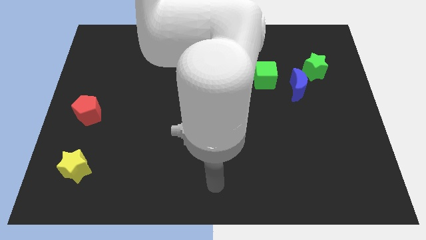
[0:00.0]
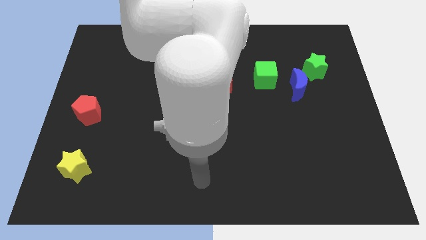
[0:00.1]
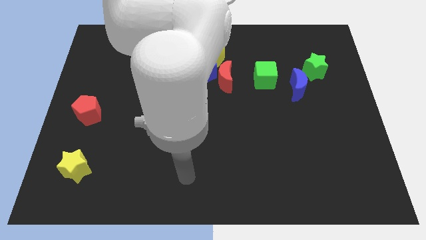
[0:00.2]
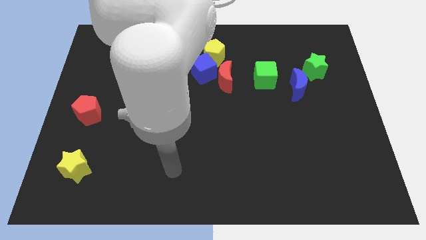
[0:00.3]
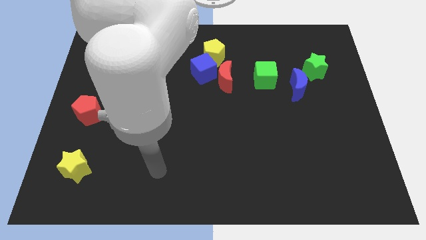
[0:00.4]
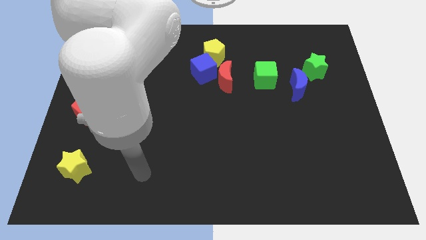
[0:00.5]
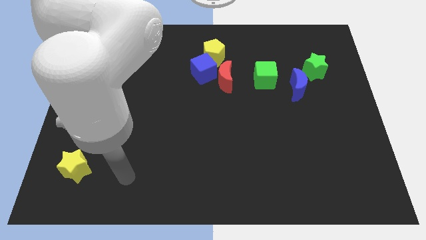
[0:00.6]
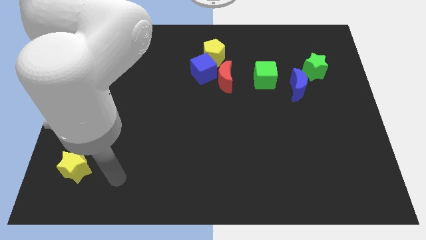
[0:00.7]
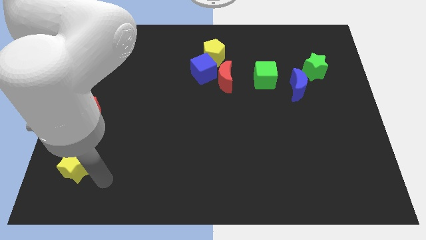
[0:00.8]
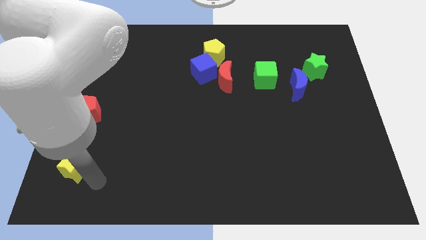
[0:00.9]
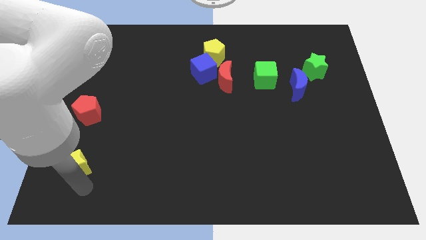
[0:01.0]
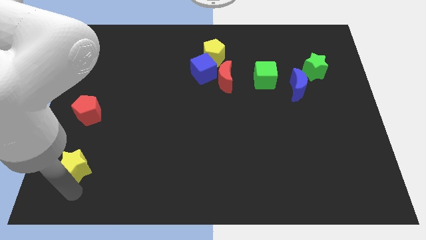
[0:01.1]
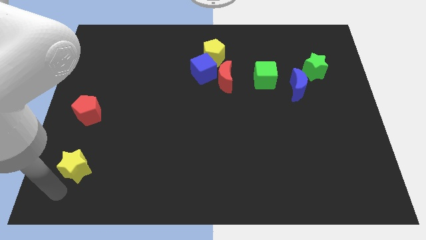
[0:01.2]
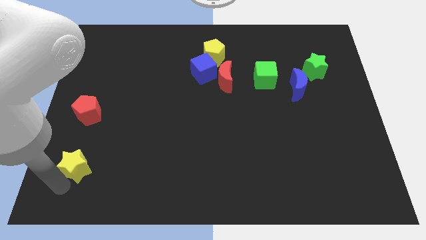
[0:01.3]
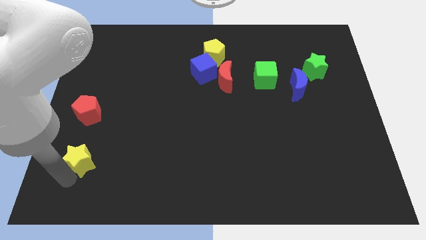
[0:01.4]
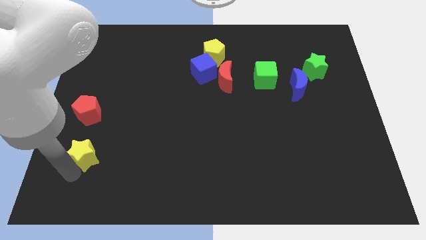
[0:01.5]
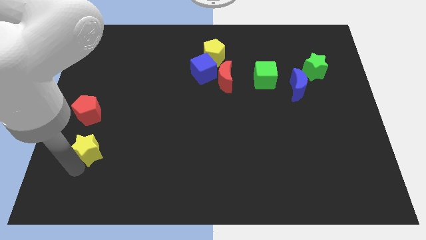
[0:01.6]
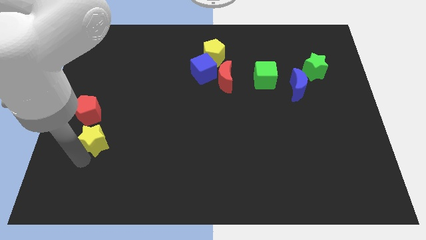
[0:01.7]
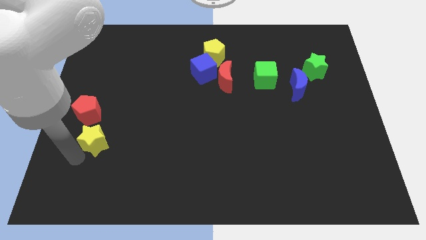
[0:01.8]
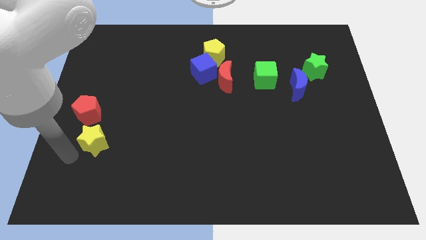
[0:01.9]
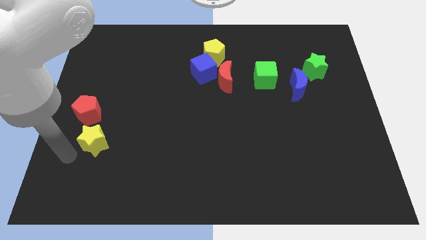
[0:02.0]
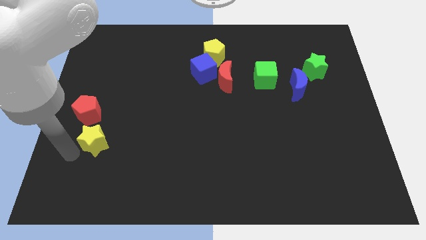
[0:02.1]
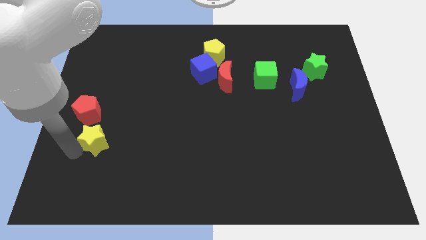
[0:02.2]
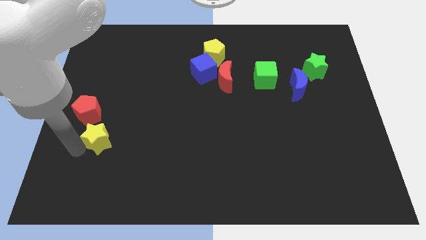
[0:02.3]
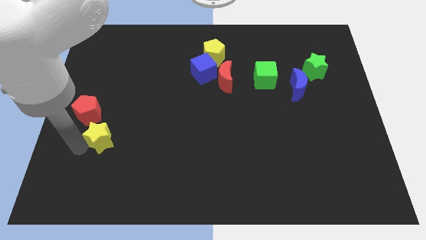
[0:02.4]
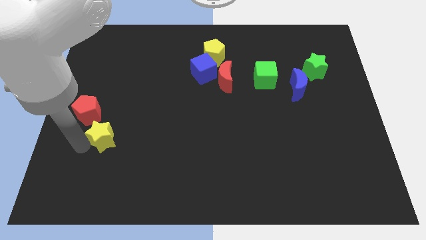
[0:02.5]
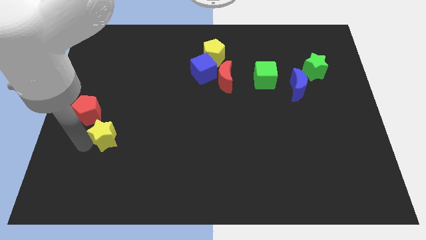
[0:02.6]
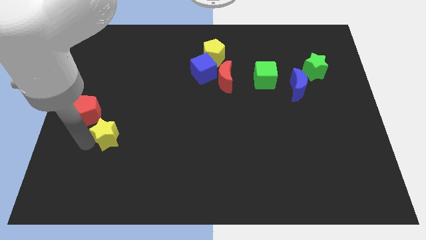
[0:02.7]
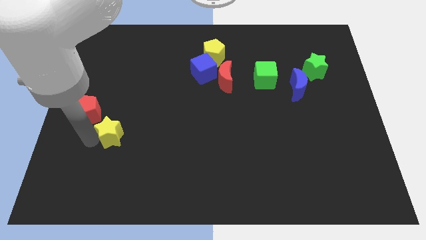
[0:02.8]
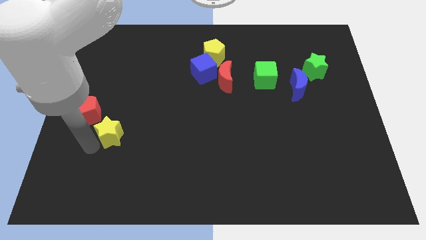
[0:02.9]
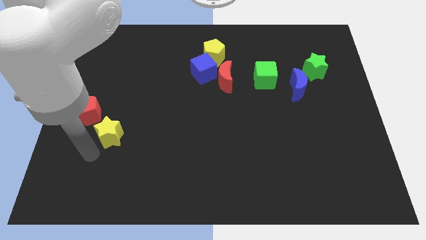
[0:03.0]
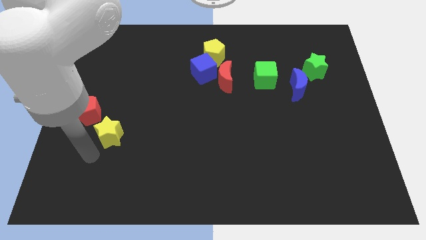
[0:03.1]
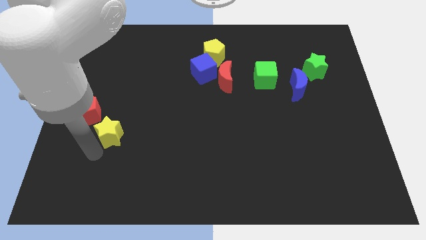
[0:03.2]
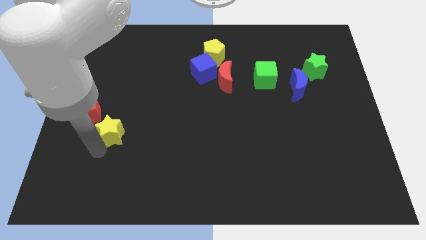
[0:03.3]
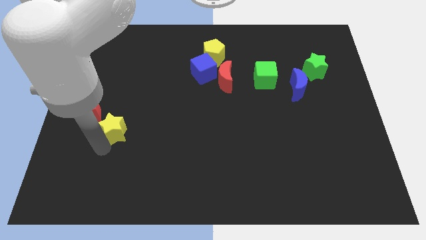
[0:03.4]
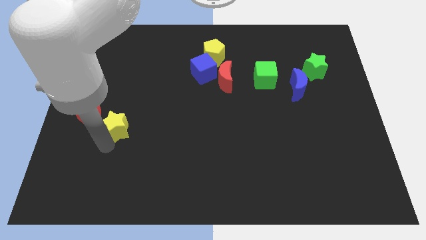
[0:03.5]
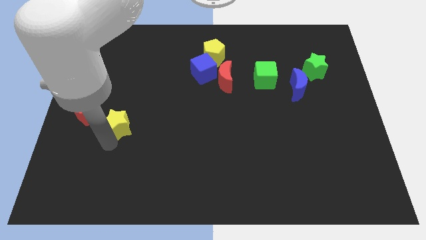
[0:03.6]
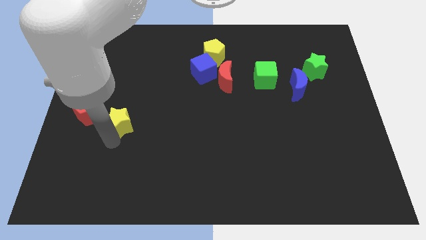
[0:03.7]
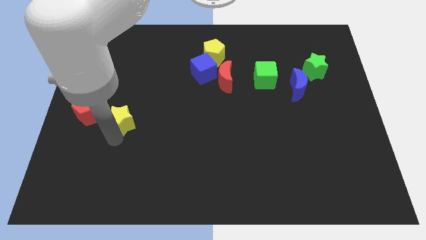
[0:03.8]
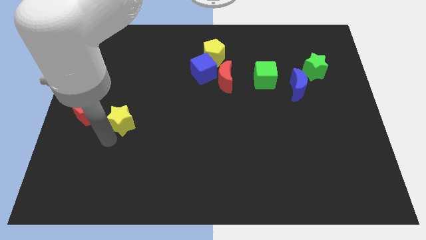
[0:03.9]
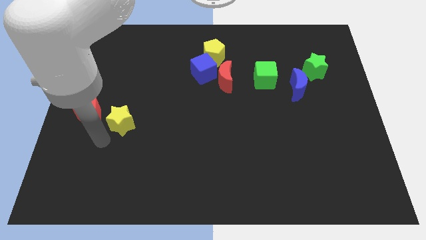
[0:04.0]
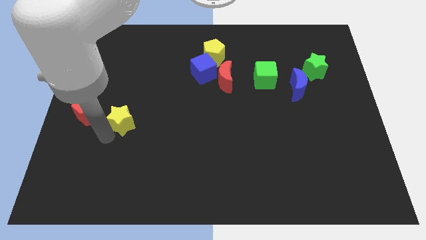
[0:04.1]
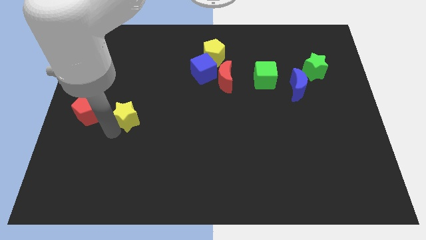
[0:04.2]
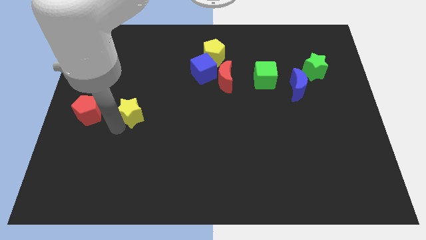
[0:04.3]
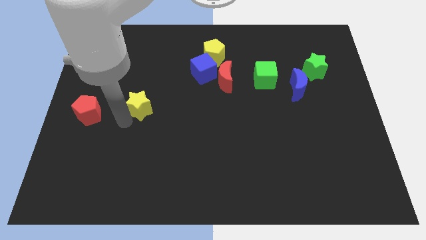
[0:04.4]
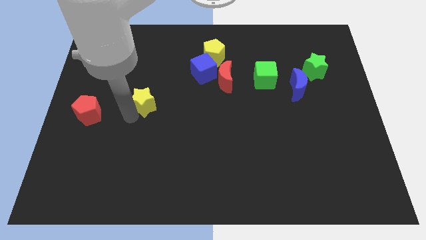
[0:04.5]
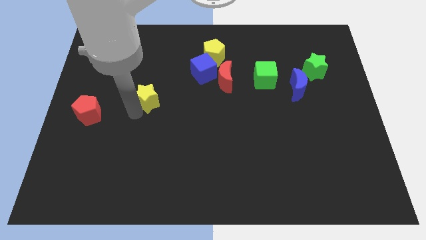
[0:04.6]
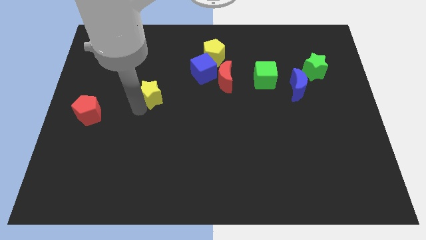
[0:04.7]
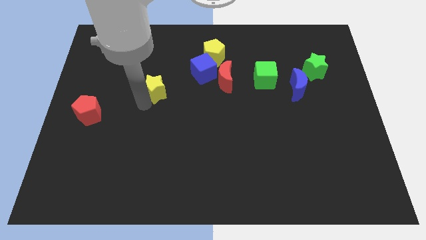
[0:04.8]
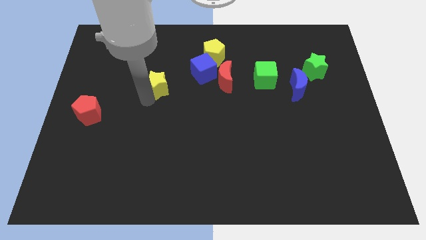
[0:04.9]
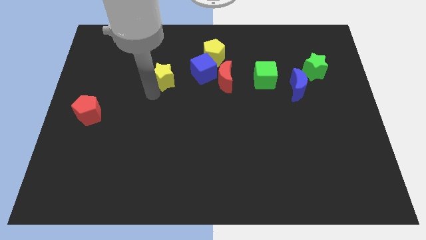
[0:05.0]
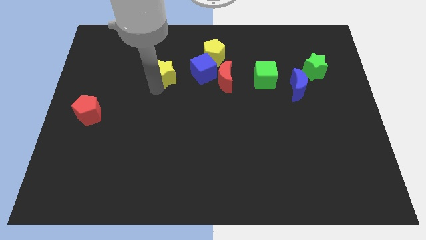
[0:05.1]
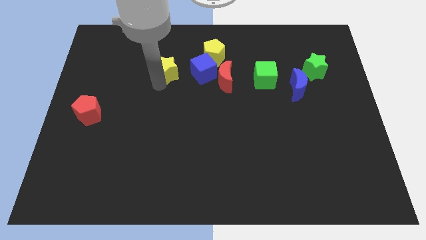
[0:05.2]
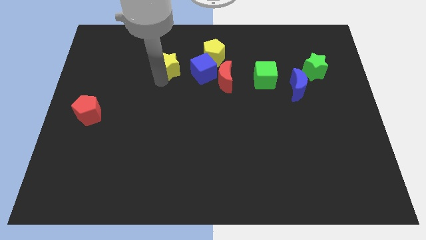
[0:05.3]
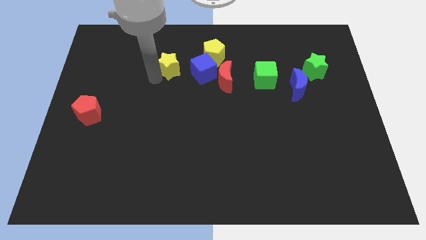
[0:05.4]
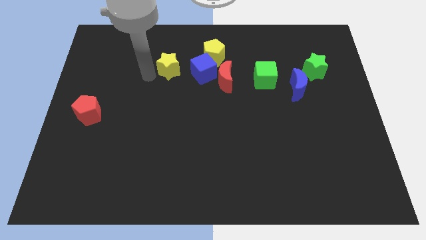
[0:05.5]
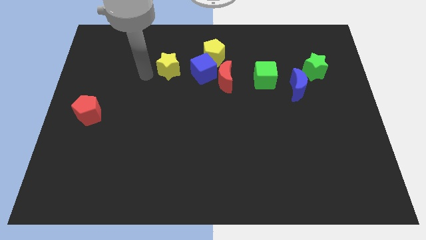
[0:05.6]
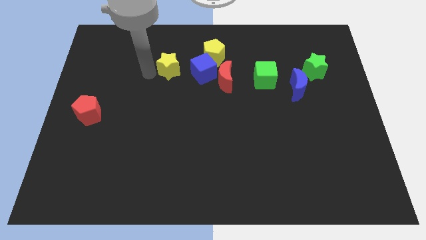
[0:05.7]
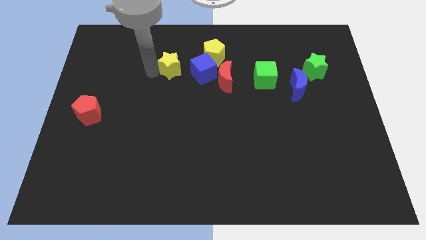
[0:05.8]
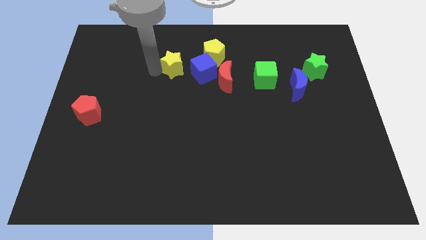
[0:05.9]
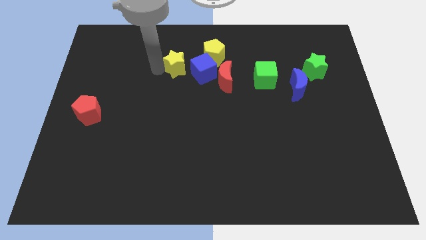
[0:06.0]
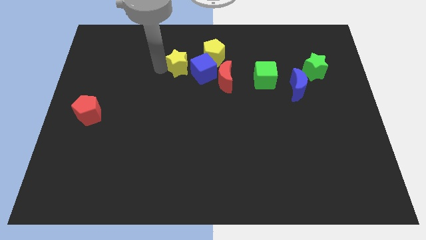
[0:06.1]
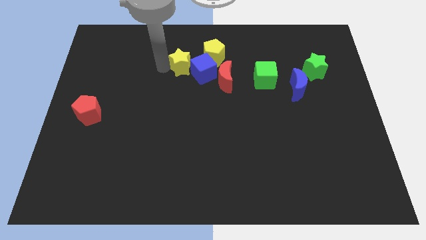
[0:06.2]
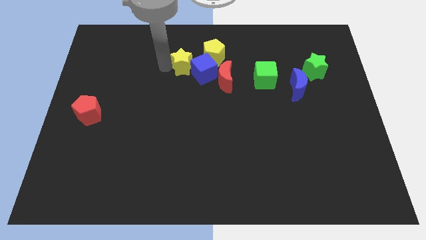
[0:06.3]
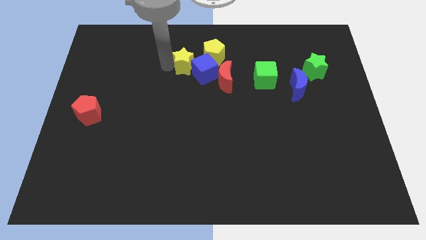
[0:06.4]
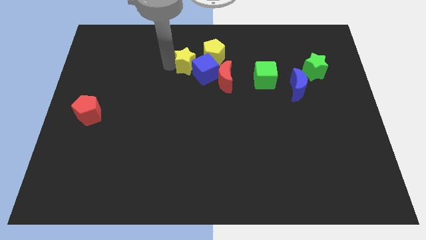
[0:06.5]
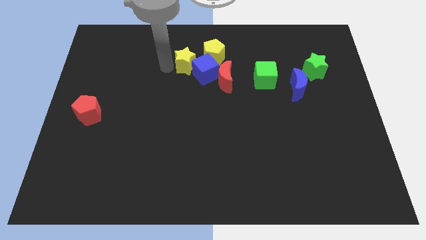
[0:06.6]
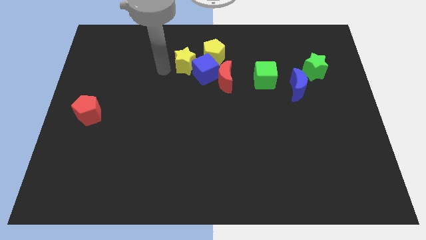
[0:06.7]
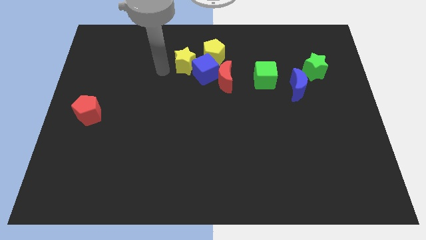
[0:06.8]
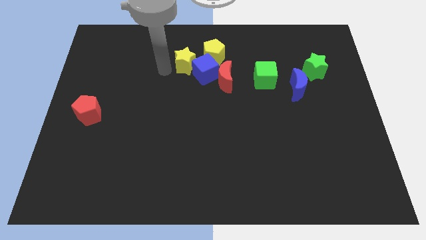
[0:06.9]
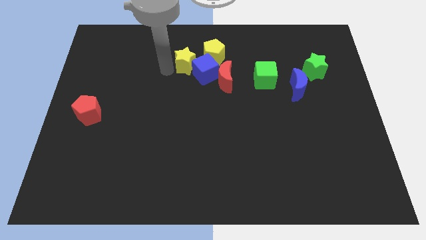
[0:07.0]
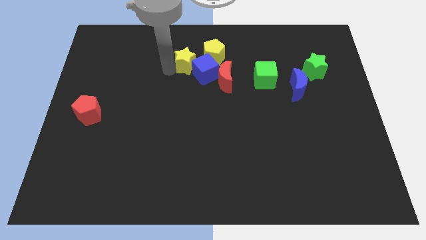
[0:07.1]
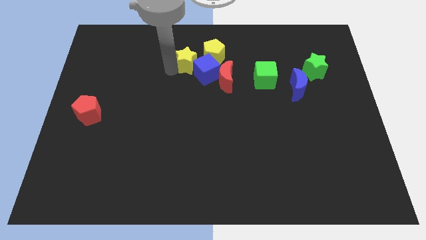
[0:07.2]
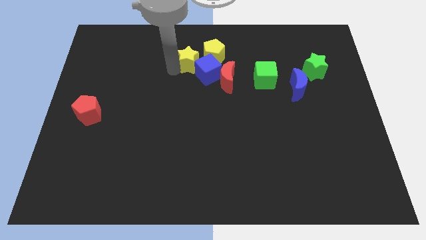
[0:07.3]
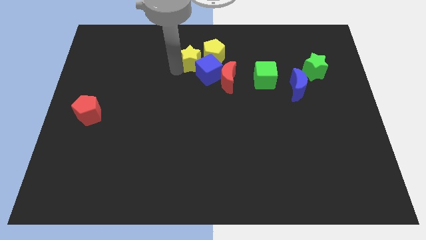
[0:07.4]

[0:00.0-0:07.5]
push the yellow star next to the yellow pentagon
